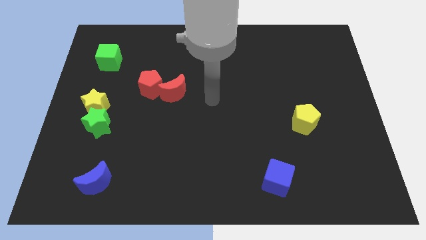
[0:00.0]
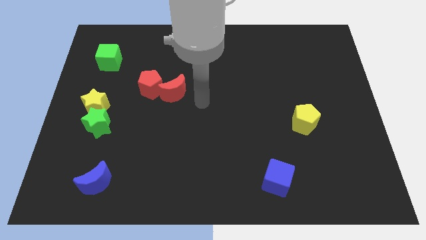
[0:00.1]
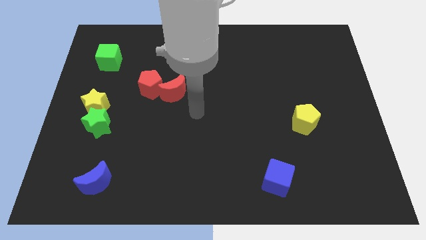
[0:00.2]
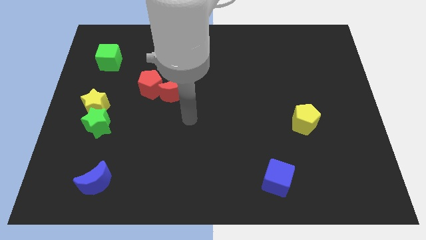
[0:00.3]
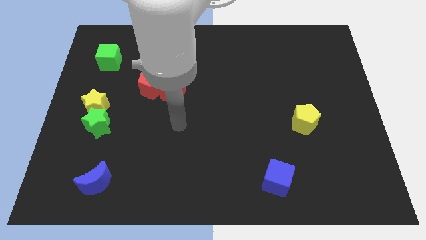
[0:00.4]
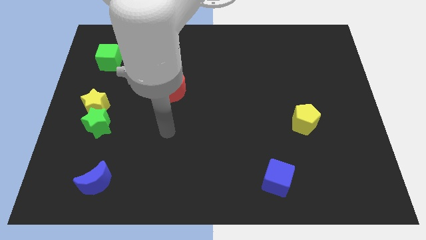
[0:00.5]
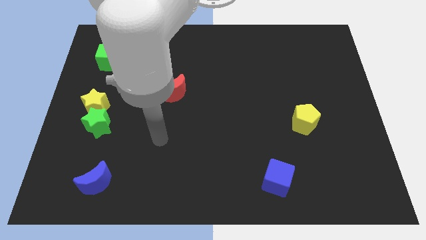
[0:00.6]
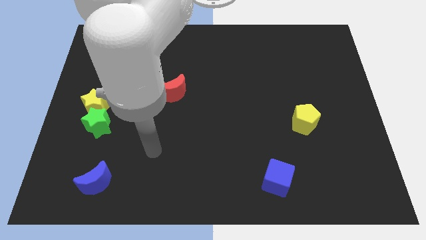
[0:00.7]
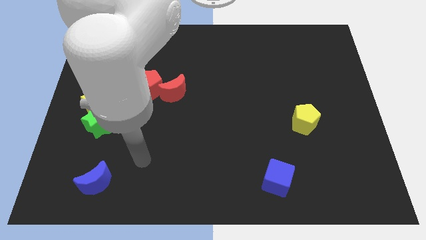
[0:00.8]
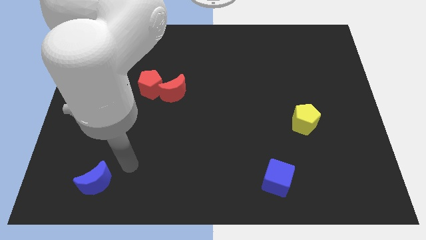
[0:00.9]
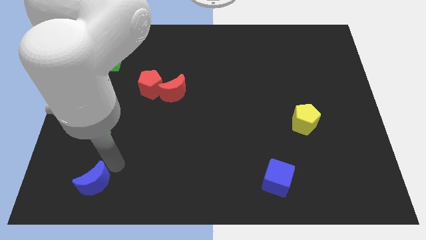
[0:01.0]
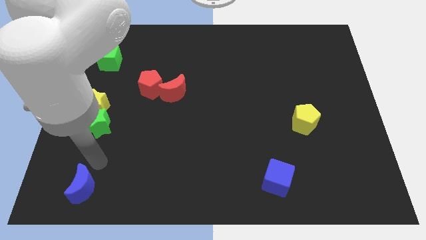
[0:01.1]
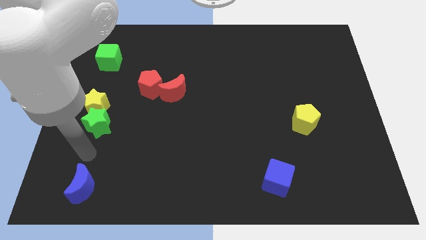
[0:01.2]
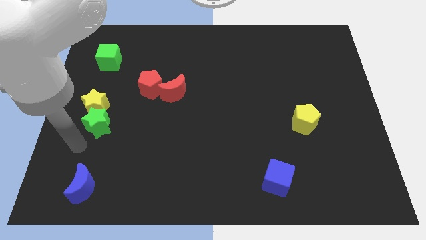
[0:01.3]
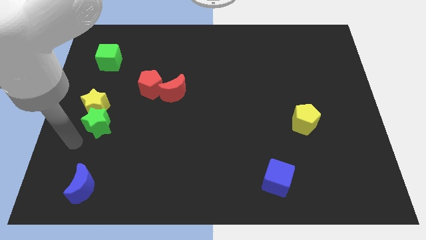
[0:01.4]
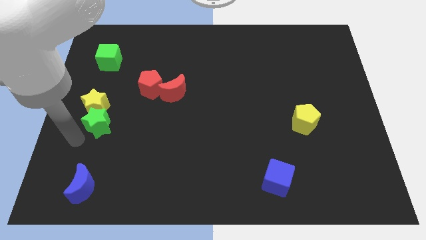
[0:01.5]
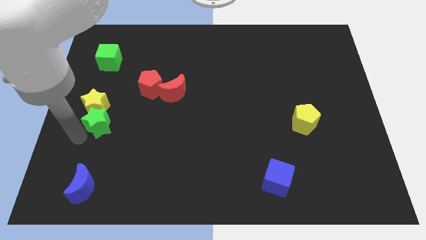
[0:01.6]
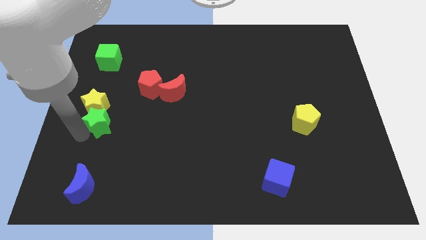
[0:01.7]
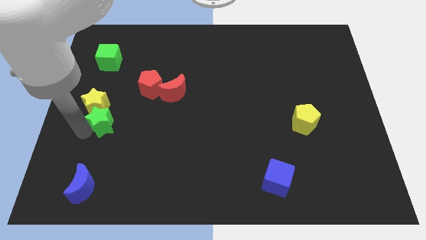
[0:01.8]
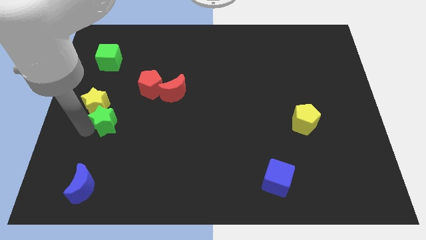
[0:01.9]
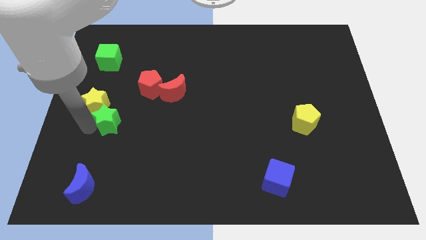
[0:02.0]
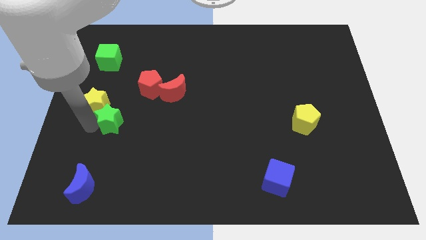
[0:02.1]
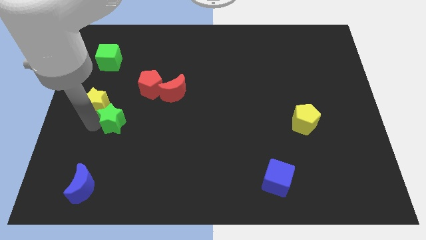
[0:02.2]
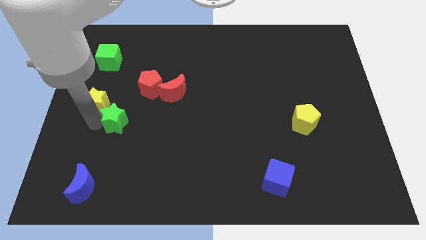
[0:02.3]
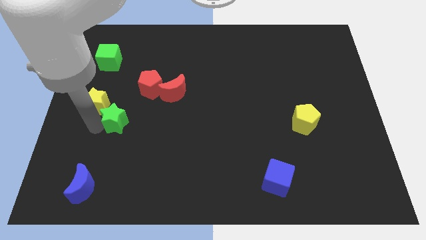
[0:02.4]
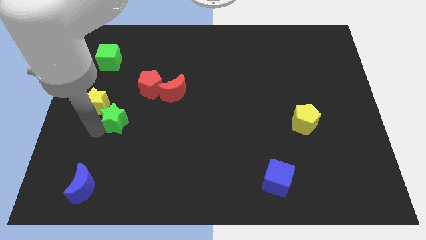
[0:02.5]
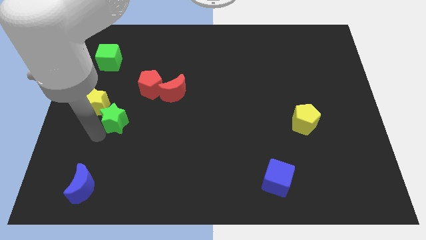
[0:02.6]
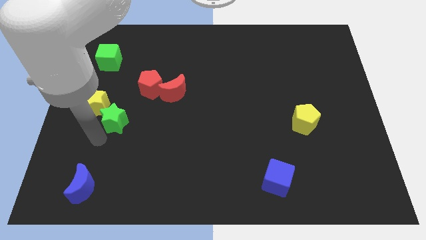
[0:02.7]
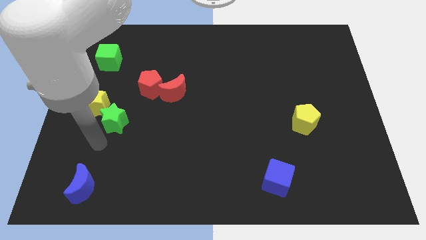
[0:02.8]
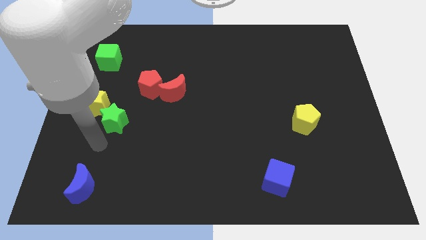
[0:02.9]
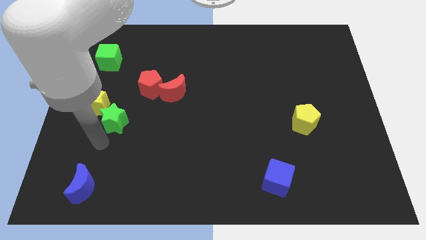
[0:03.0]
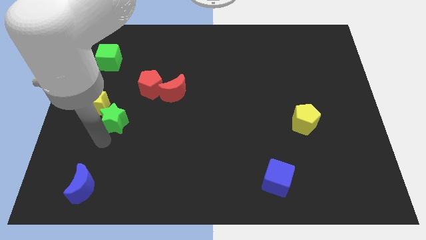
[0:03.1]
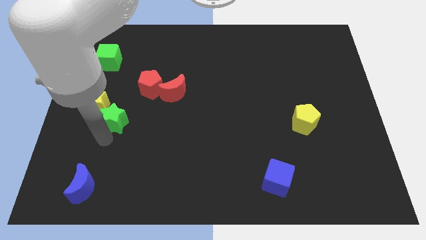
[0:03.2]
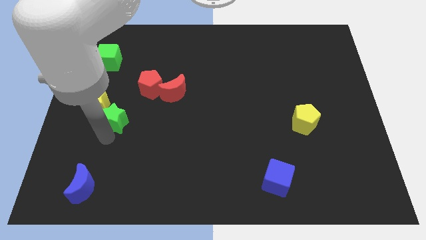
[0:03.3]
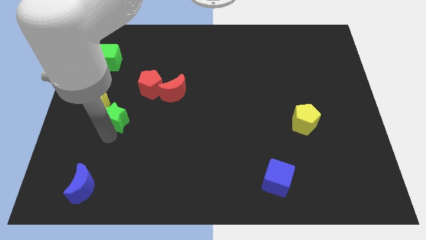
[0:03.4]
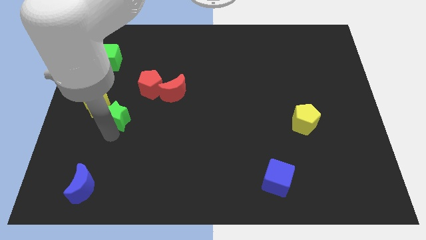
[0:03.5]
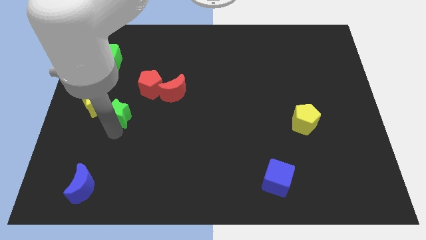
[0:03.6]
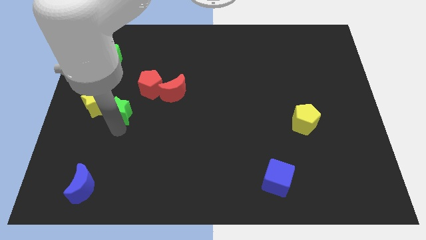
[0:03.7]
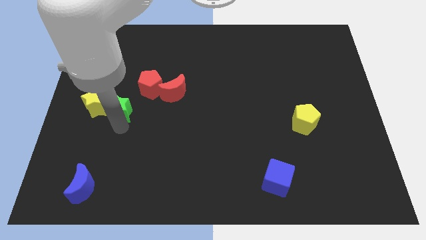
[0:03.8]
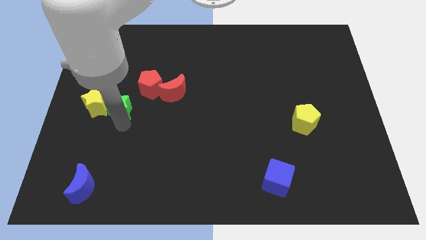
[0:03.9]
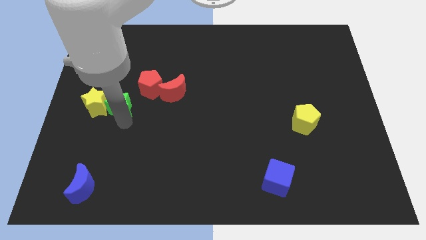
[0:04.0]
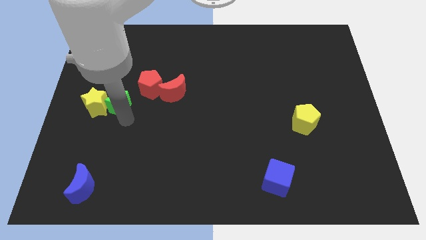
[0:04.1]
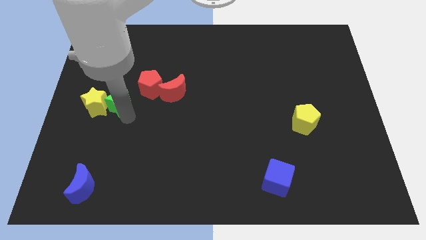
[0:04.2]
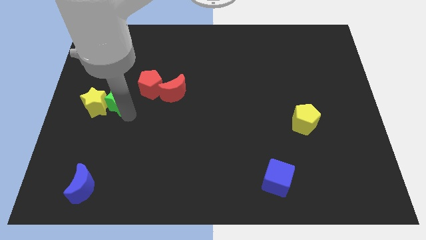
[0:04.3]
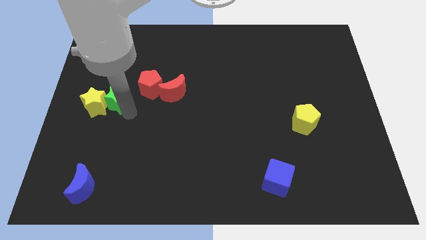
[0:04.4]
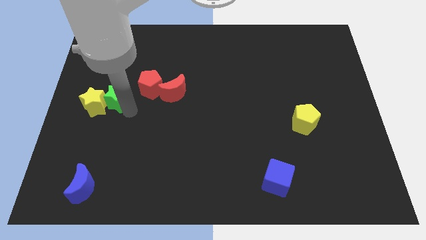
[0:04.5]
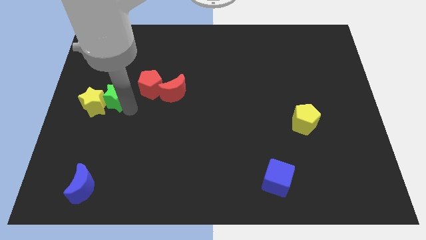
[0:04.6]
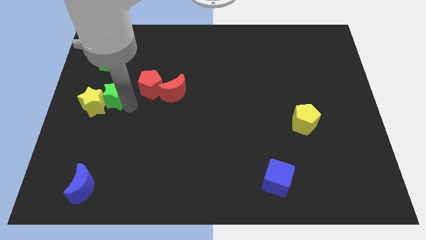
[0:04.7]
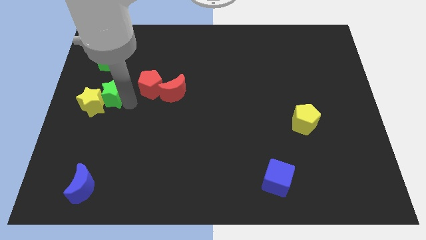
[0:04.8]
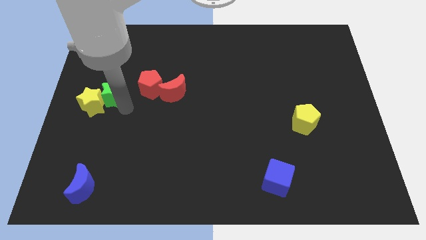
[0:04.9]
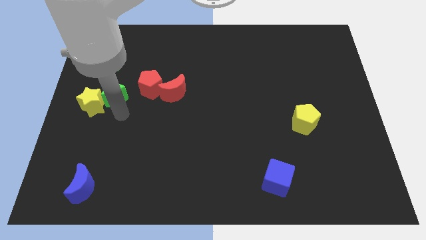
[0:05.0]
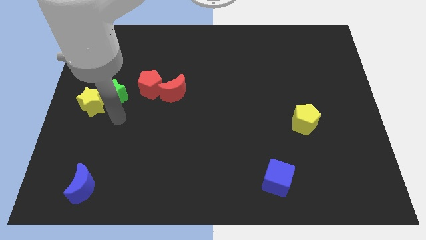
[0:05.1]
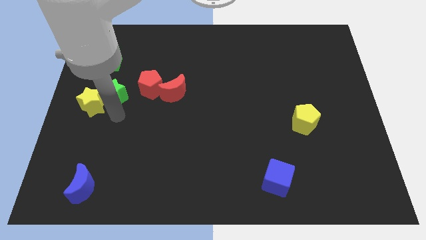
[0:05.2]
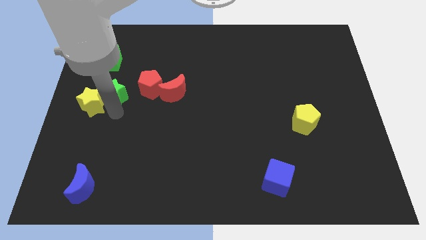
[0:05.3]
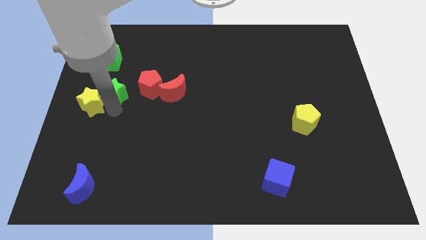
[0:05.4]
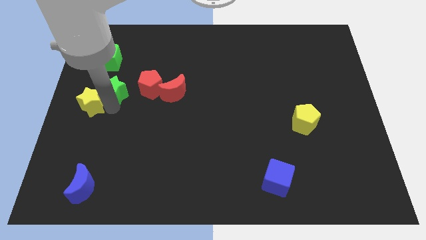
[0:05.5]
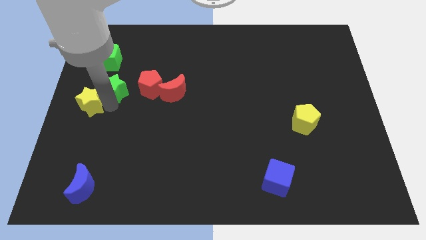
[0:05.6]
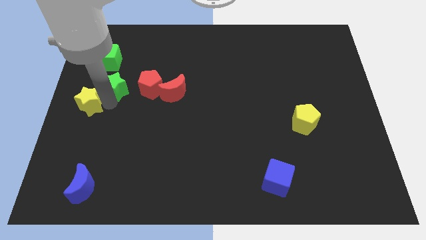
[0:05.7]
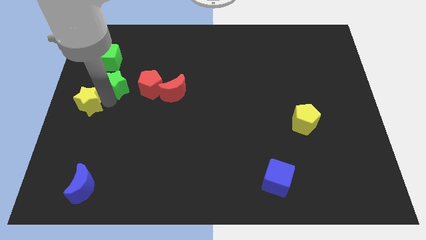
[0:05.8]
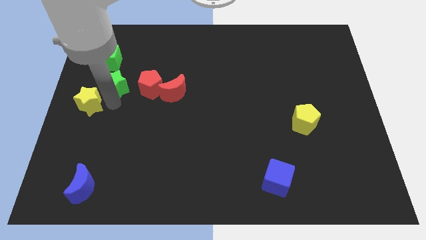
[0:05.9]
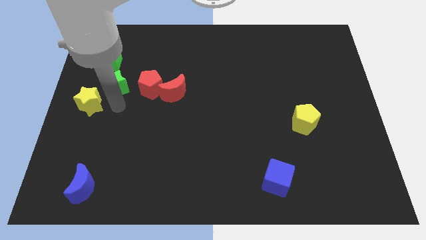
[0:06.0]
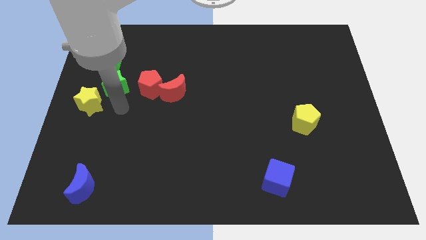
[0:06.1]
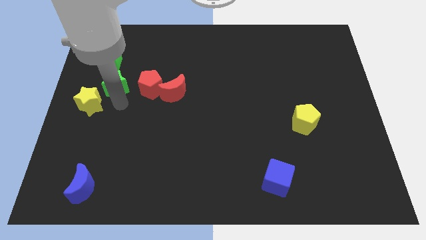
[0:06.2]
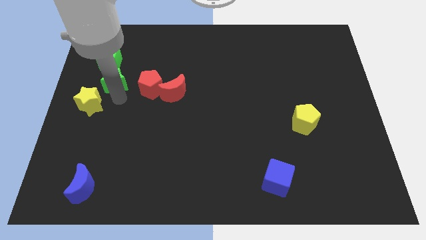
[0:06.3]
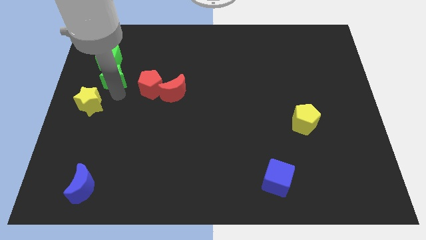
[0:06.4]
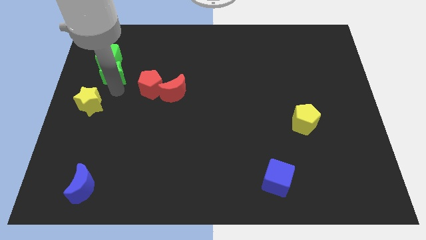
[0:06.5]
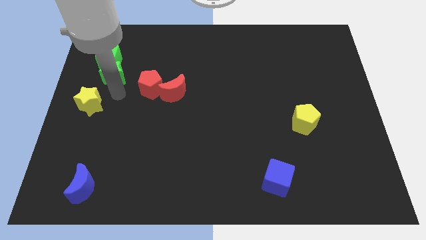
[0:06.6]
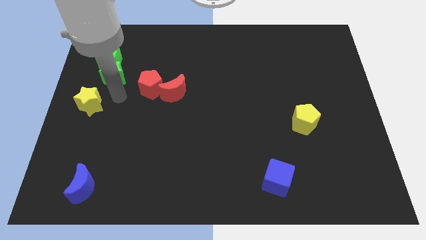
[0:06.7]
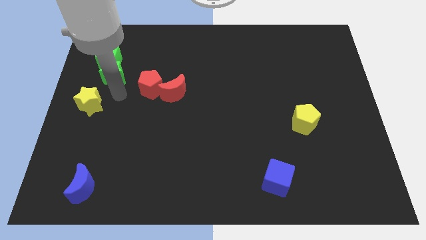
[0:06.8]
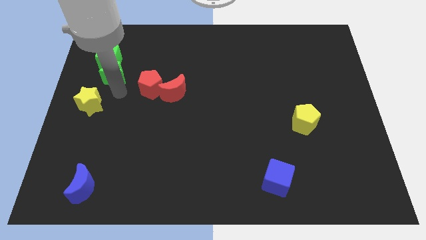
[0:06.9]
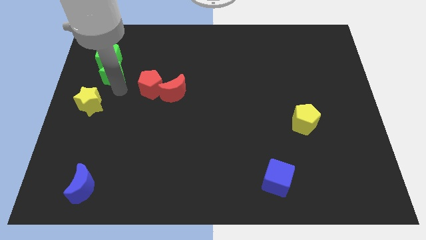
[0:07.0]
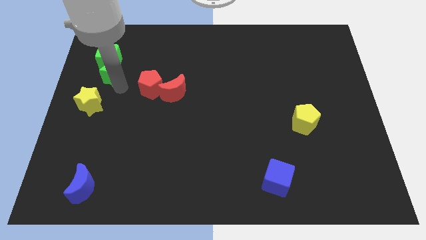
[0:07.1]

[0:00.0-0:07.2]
push the green star to the green cube
